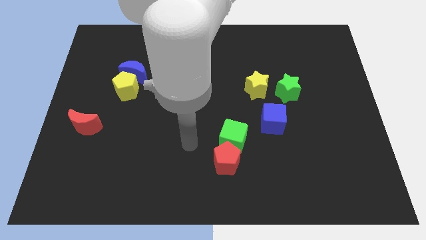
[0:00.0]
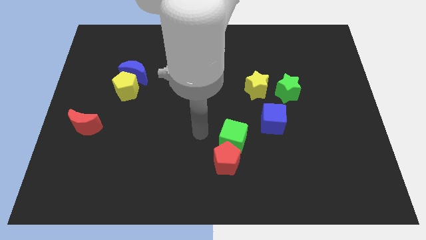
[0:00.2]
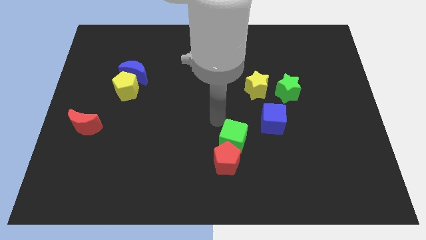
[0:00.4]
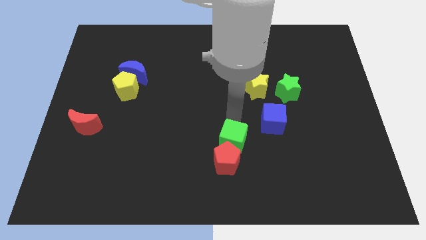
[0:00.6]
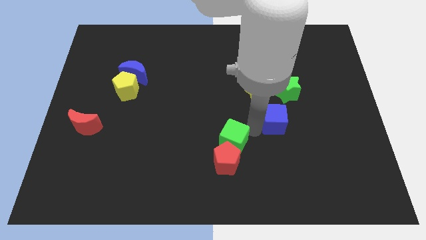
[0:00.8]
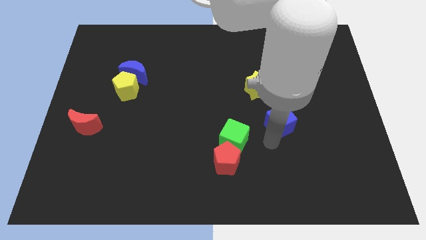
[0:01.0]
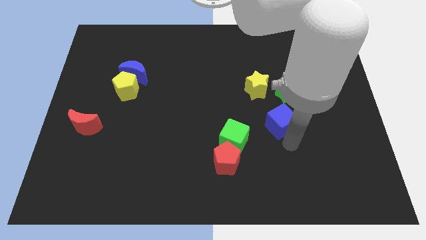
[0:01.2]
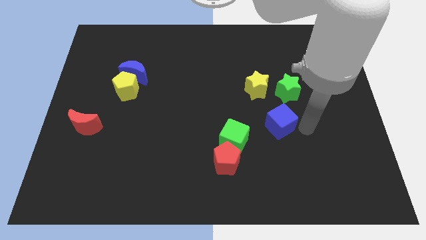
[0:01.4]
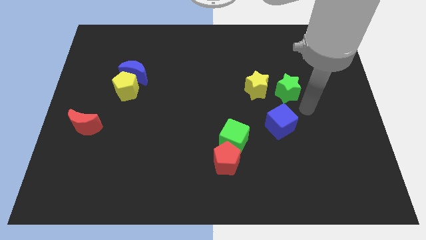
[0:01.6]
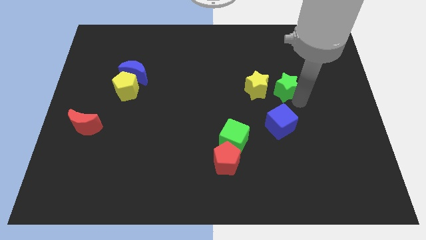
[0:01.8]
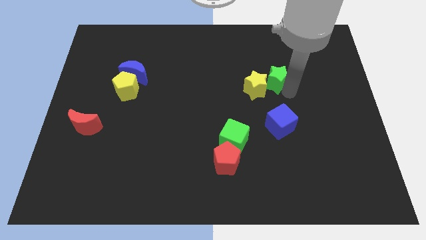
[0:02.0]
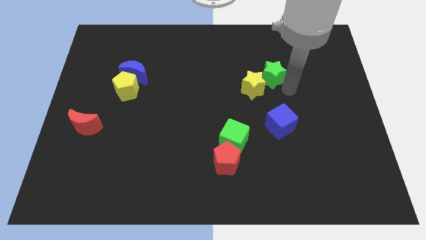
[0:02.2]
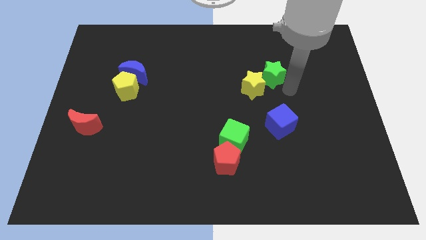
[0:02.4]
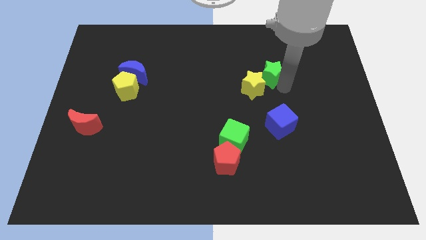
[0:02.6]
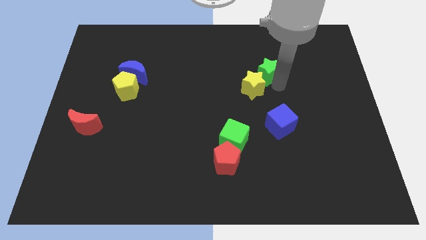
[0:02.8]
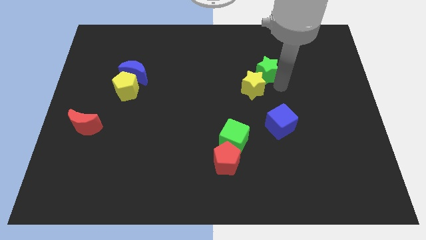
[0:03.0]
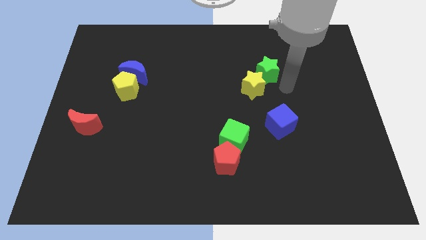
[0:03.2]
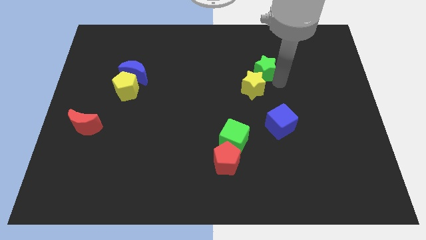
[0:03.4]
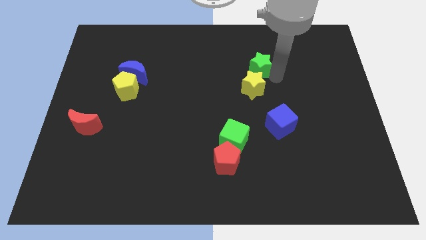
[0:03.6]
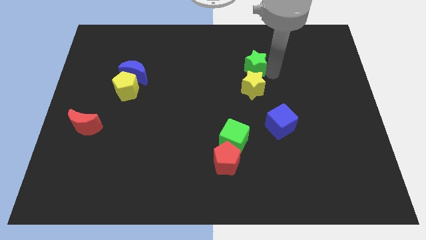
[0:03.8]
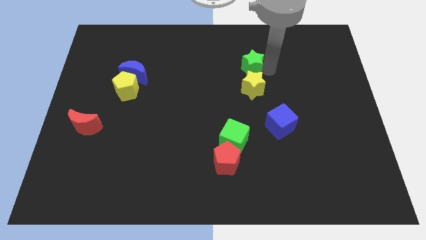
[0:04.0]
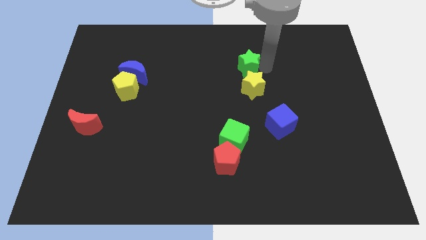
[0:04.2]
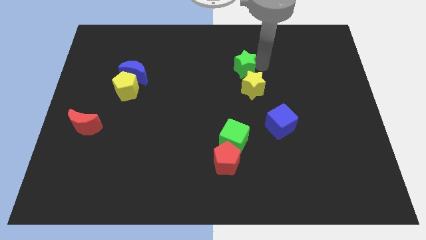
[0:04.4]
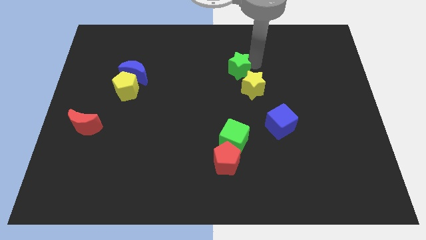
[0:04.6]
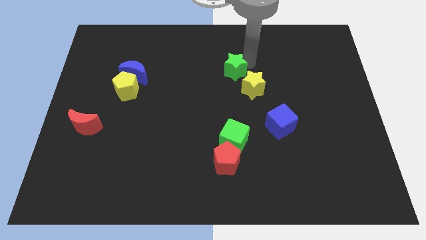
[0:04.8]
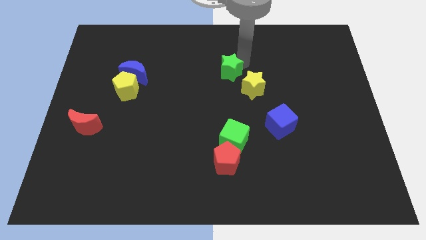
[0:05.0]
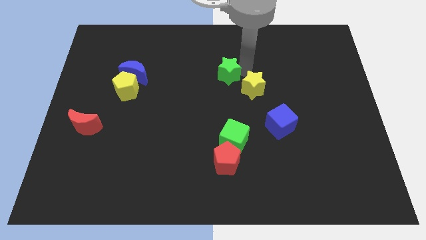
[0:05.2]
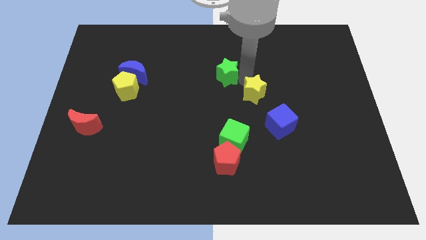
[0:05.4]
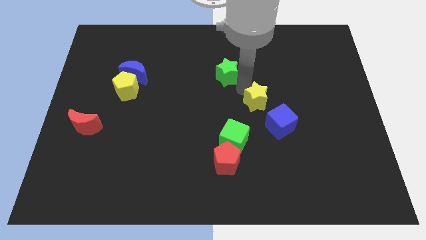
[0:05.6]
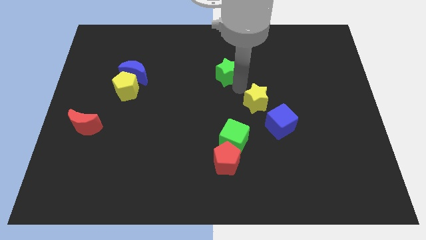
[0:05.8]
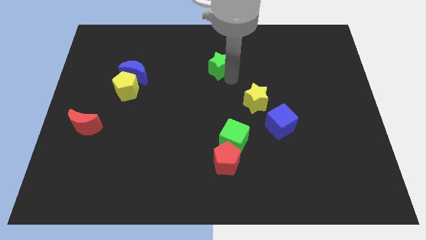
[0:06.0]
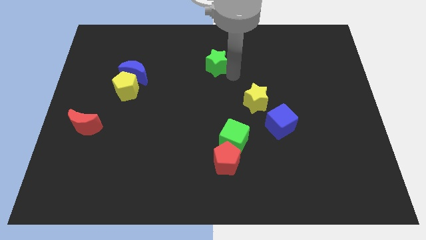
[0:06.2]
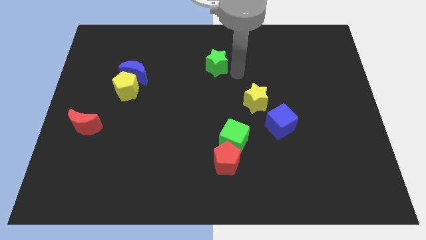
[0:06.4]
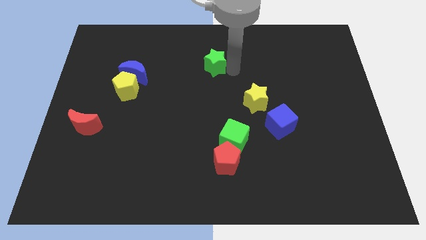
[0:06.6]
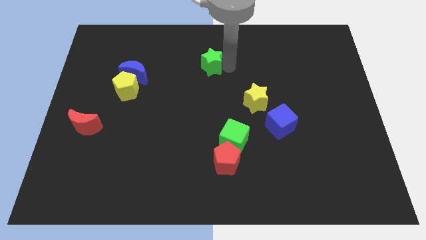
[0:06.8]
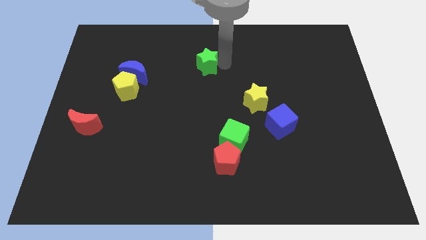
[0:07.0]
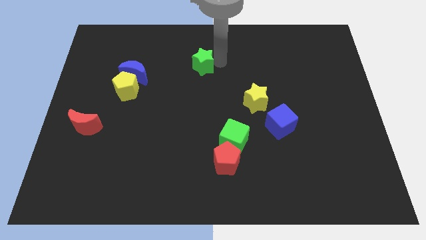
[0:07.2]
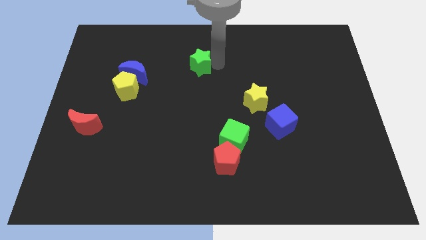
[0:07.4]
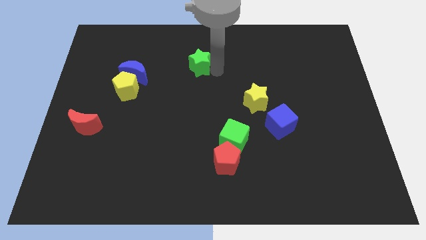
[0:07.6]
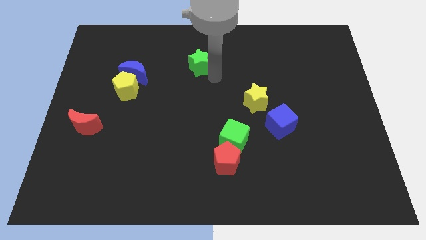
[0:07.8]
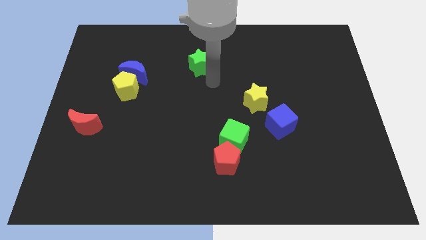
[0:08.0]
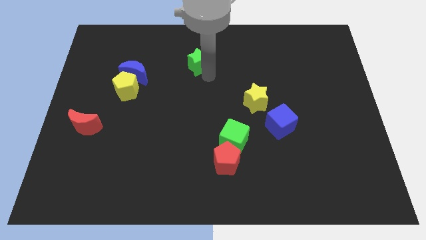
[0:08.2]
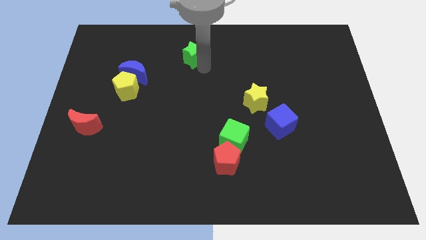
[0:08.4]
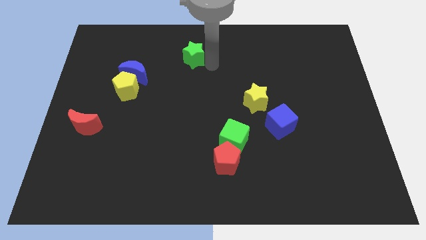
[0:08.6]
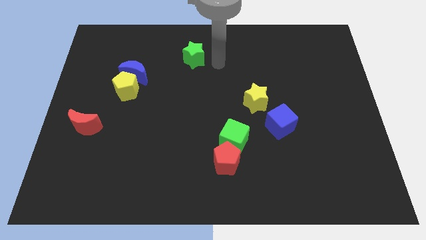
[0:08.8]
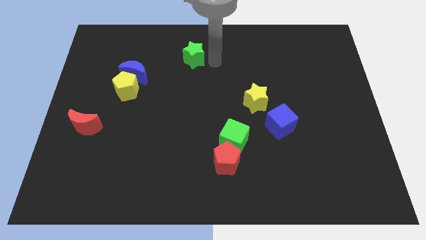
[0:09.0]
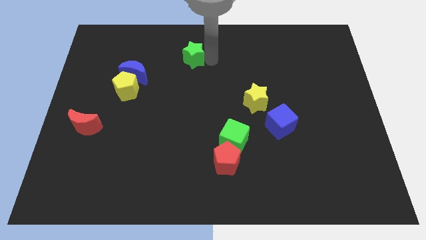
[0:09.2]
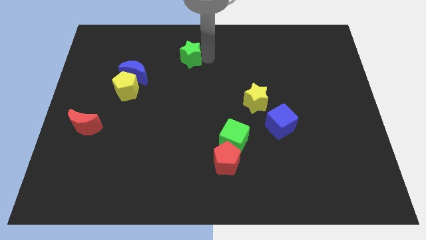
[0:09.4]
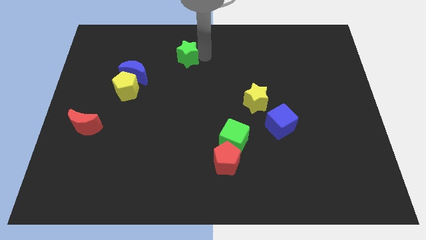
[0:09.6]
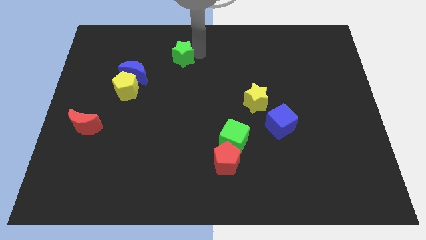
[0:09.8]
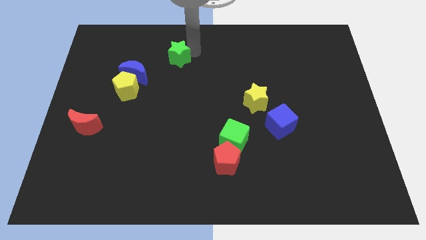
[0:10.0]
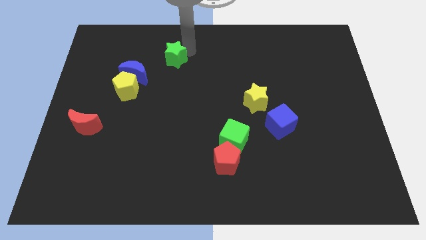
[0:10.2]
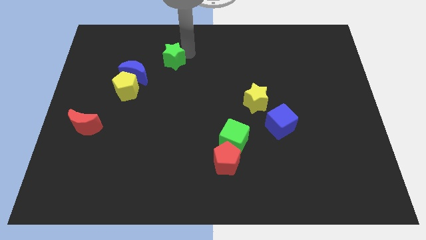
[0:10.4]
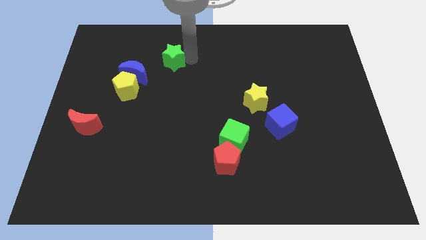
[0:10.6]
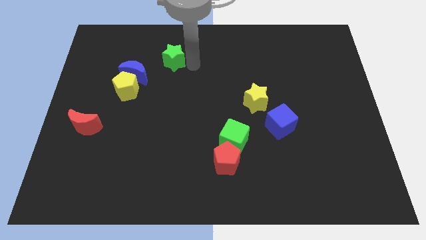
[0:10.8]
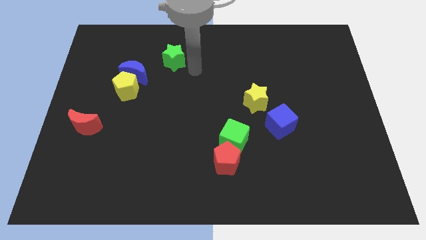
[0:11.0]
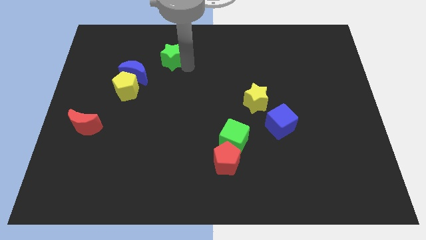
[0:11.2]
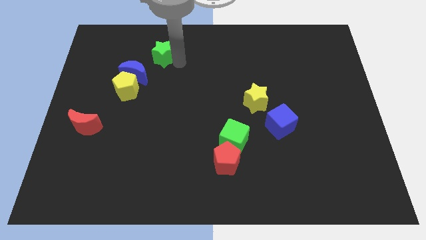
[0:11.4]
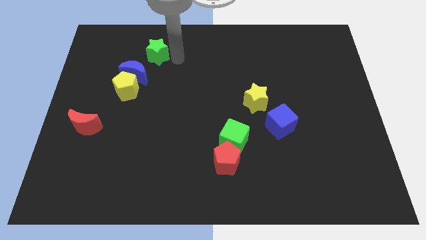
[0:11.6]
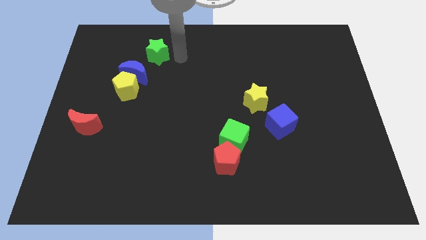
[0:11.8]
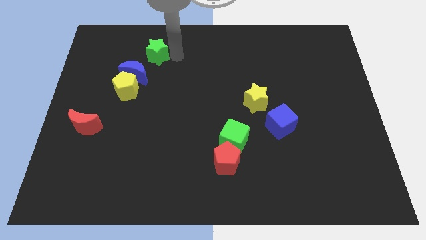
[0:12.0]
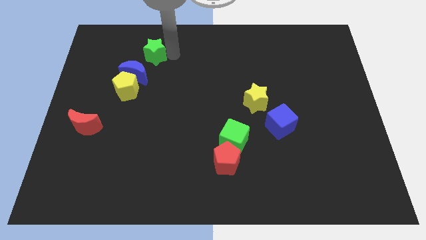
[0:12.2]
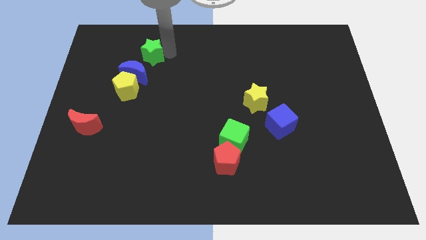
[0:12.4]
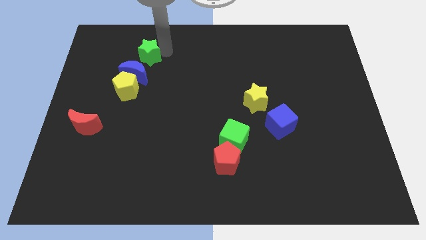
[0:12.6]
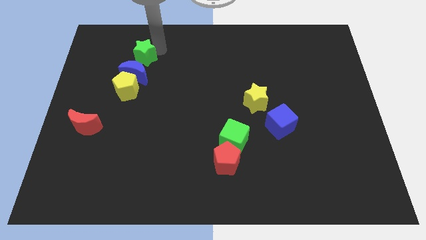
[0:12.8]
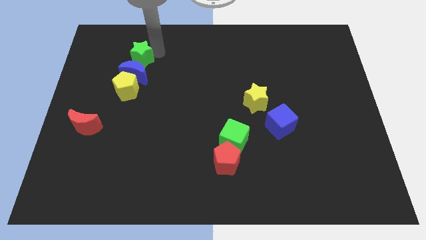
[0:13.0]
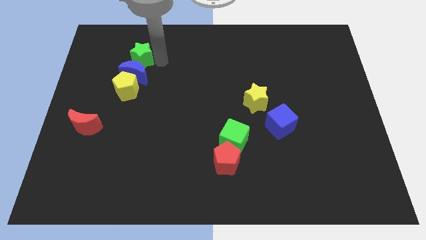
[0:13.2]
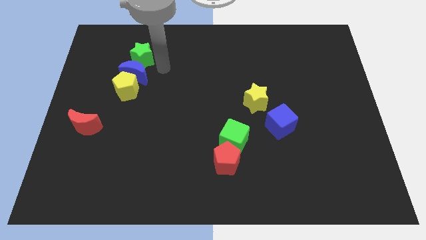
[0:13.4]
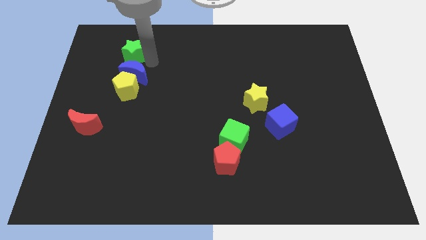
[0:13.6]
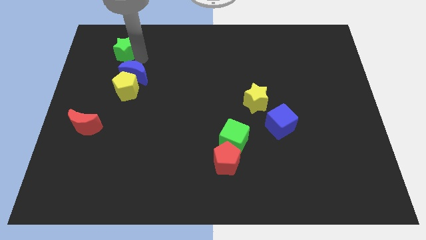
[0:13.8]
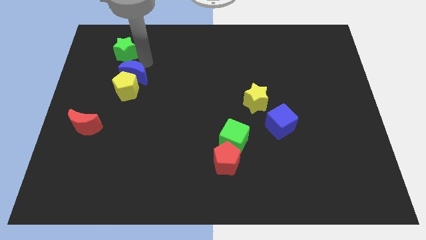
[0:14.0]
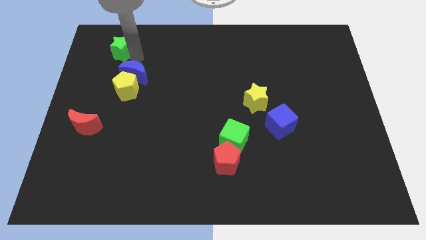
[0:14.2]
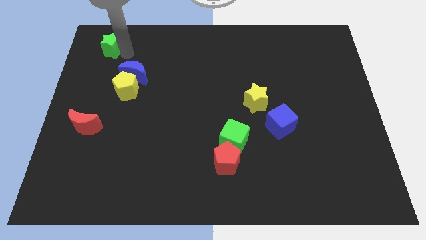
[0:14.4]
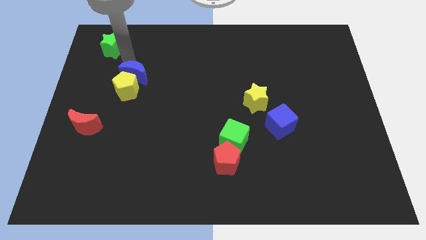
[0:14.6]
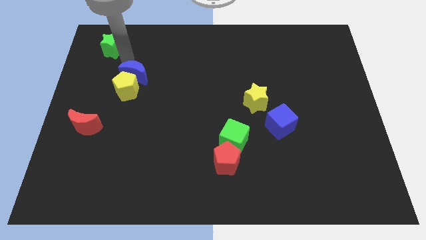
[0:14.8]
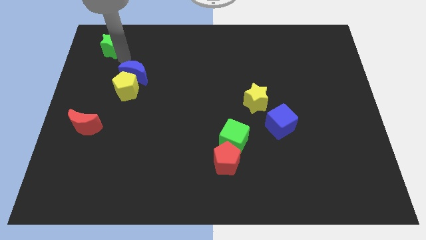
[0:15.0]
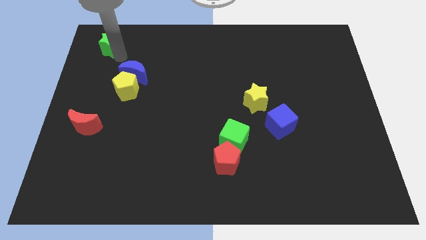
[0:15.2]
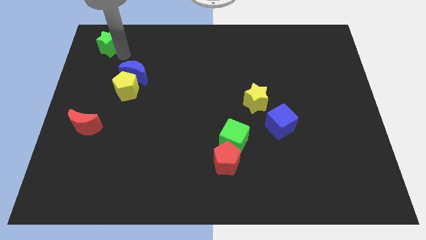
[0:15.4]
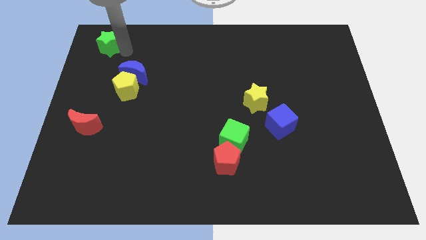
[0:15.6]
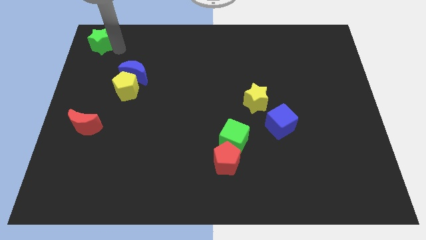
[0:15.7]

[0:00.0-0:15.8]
put the green star to the top left corner
